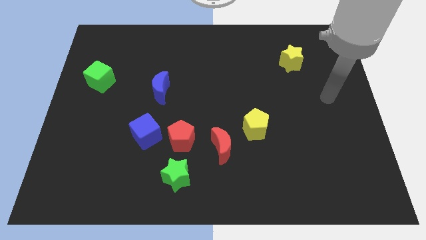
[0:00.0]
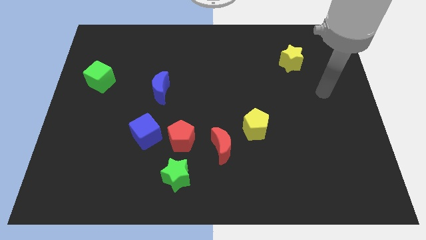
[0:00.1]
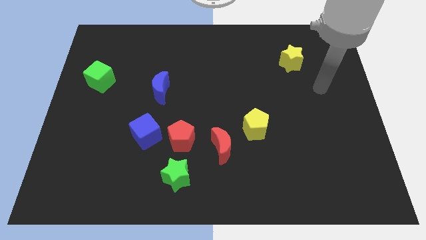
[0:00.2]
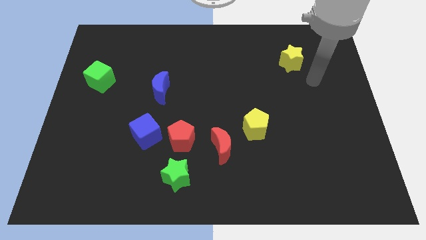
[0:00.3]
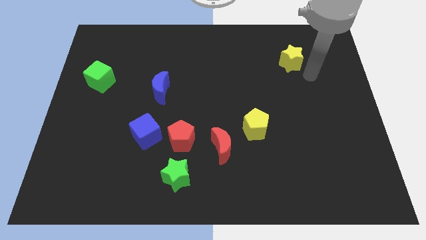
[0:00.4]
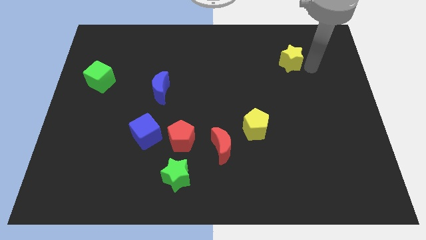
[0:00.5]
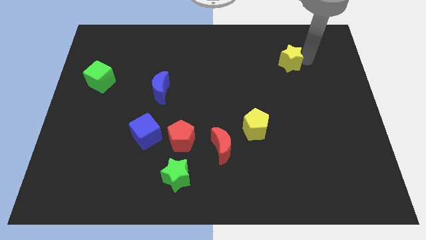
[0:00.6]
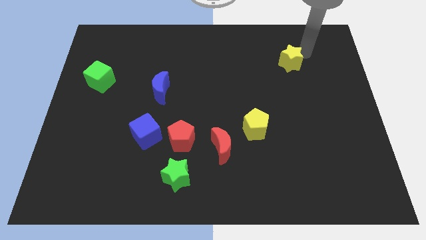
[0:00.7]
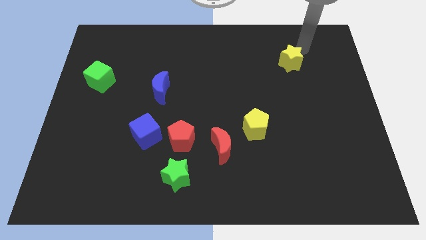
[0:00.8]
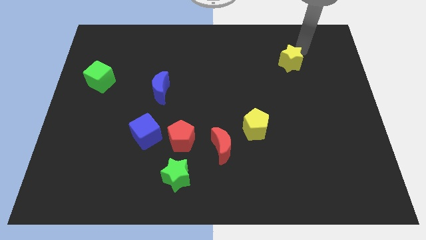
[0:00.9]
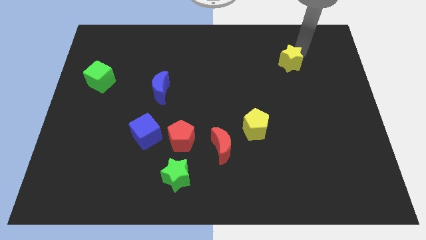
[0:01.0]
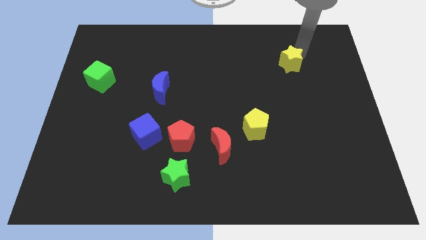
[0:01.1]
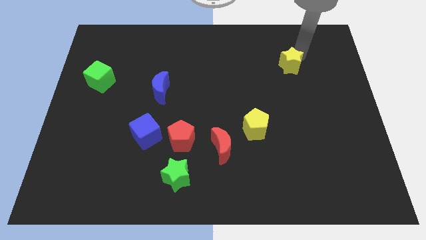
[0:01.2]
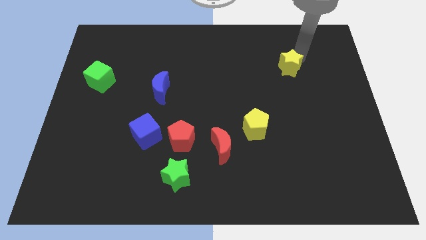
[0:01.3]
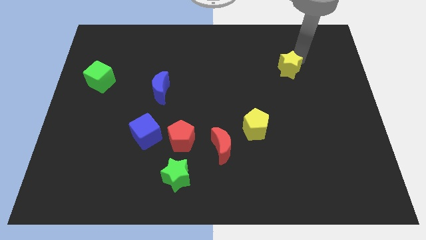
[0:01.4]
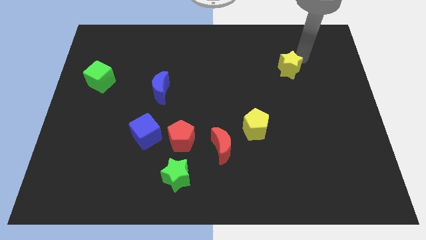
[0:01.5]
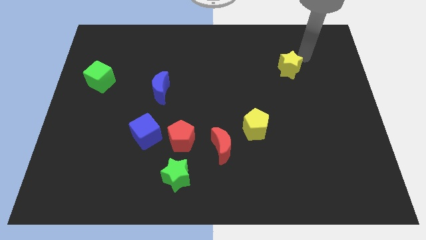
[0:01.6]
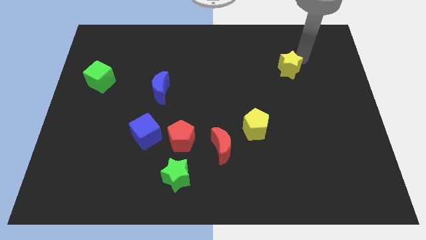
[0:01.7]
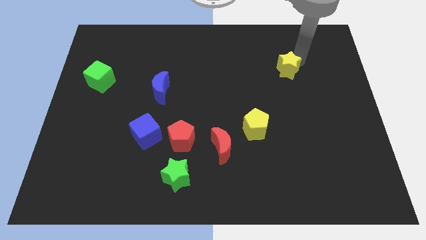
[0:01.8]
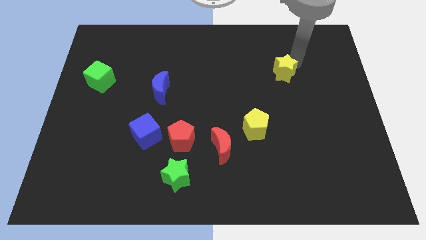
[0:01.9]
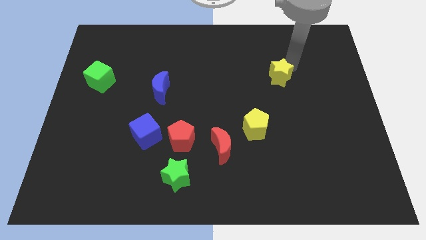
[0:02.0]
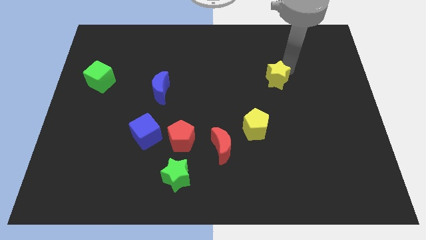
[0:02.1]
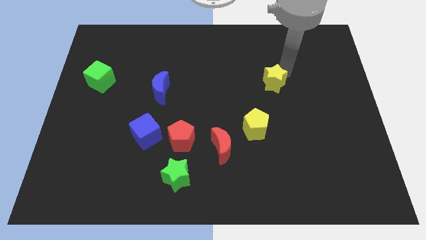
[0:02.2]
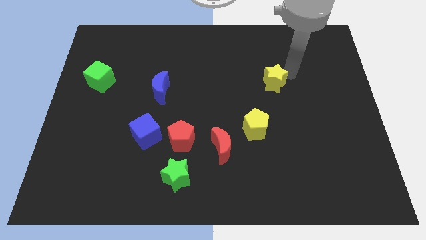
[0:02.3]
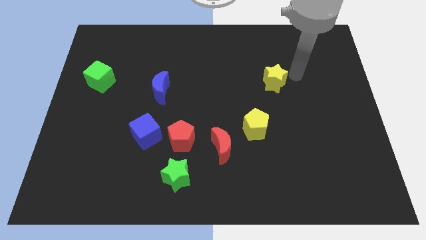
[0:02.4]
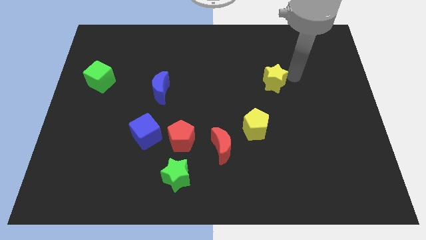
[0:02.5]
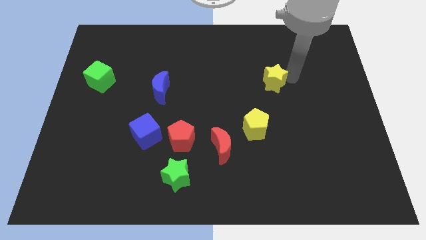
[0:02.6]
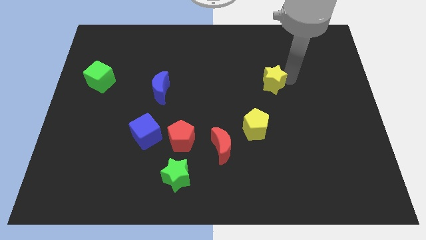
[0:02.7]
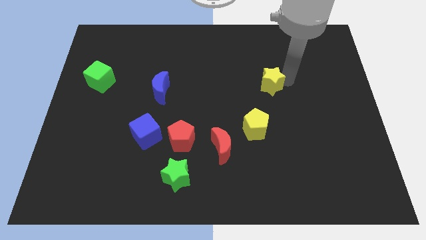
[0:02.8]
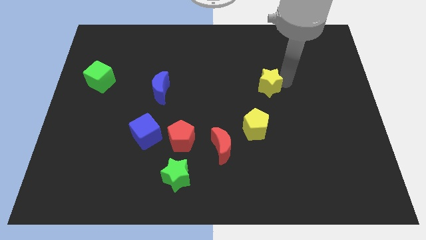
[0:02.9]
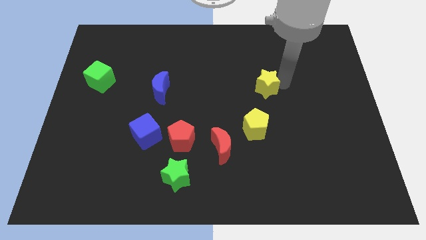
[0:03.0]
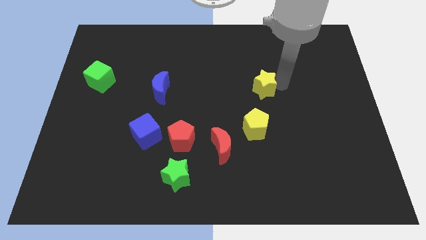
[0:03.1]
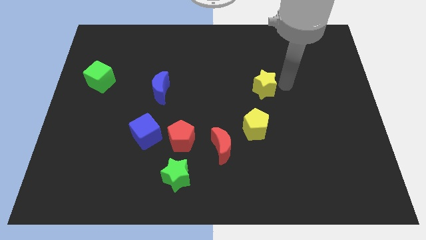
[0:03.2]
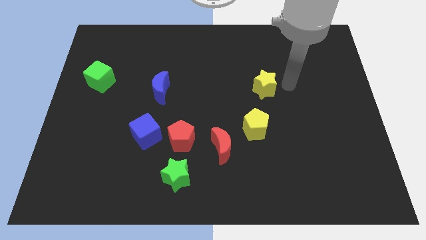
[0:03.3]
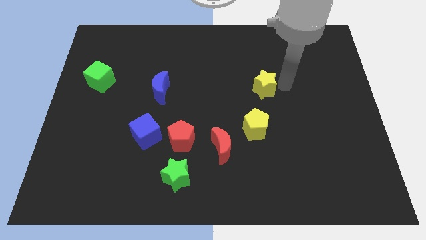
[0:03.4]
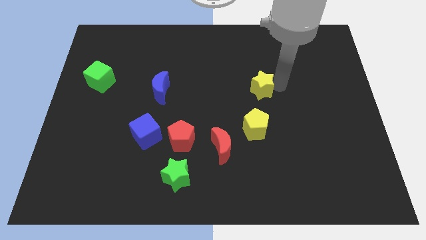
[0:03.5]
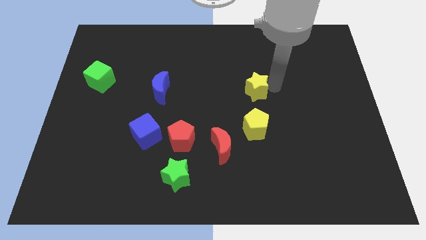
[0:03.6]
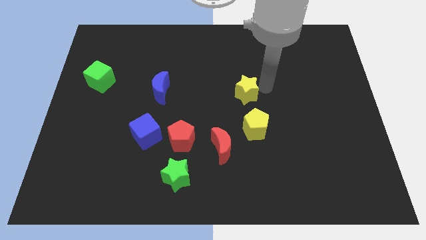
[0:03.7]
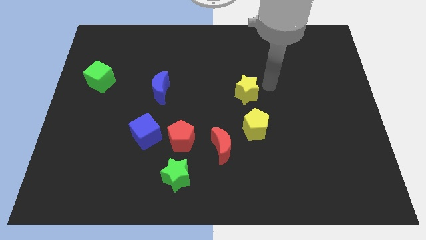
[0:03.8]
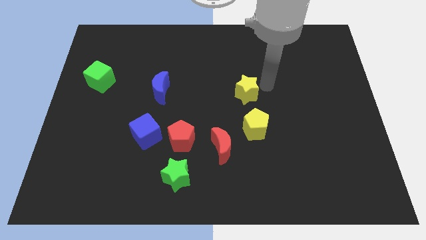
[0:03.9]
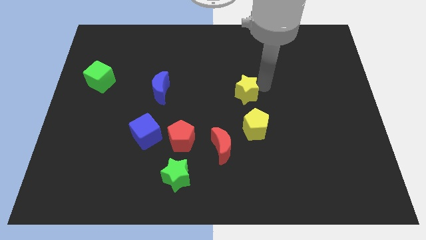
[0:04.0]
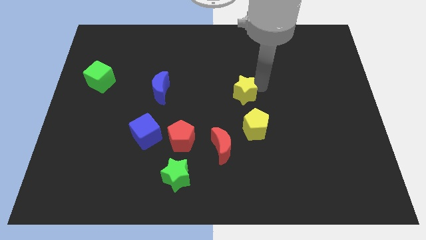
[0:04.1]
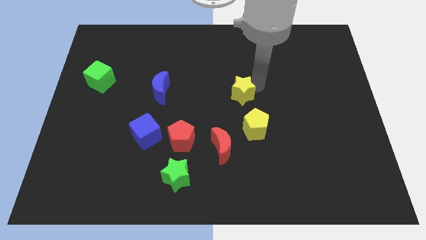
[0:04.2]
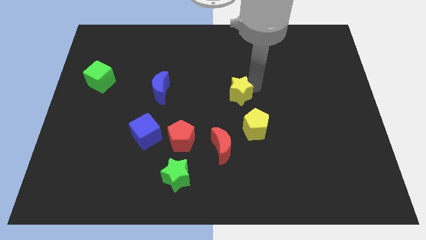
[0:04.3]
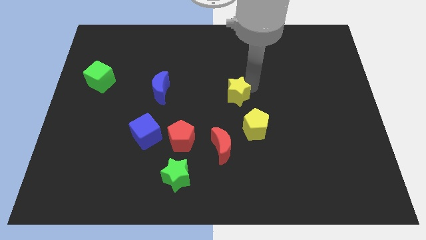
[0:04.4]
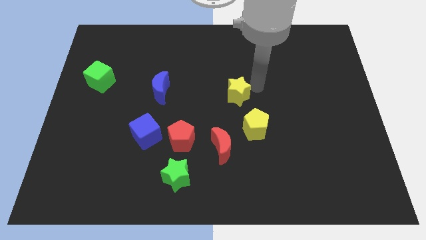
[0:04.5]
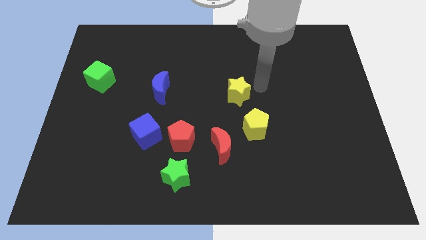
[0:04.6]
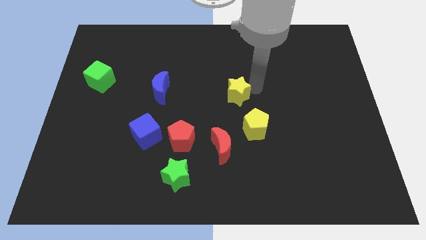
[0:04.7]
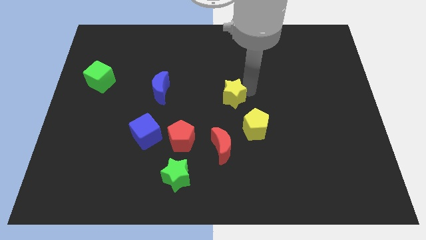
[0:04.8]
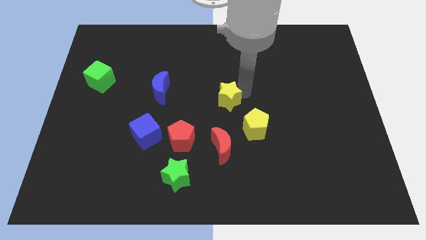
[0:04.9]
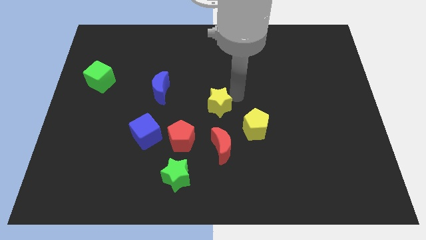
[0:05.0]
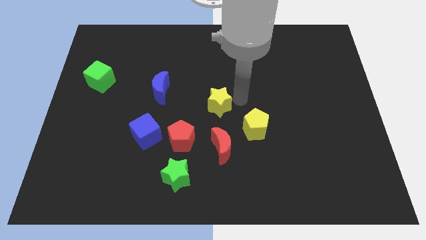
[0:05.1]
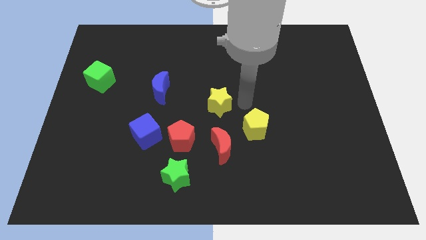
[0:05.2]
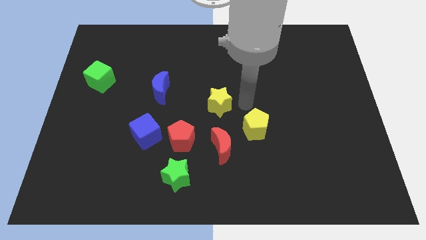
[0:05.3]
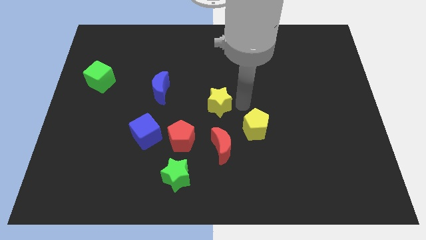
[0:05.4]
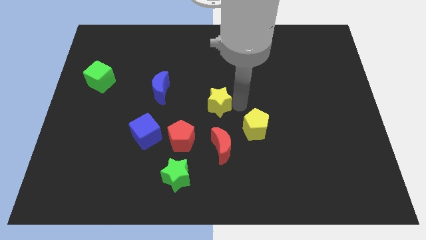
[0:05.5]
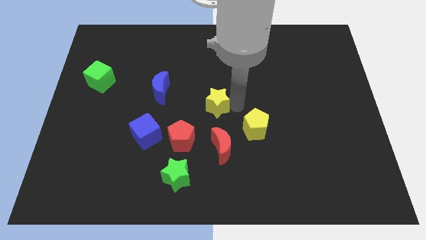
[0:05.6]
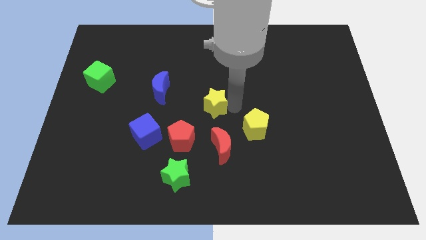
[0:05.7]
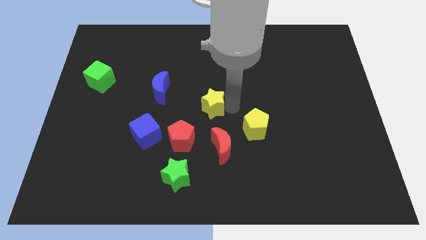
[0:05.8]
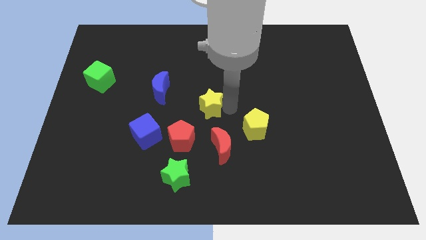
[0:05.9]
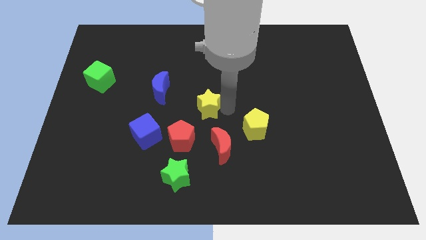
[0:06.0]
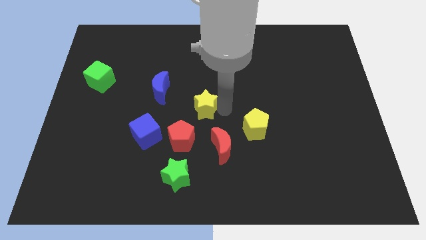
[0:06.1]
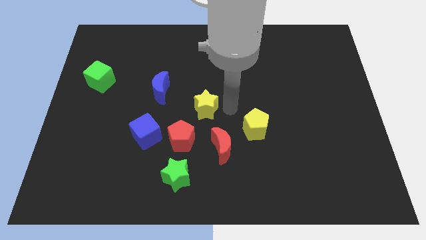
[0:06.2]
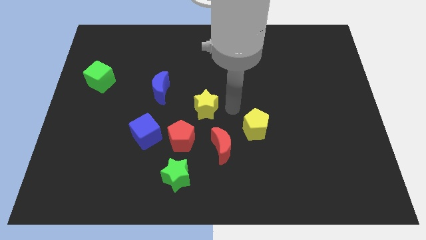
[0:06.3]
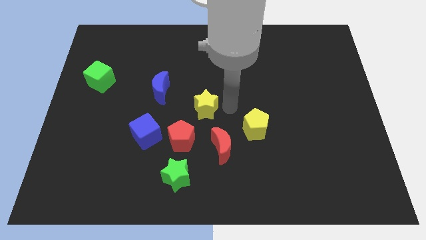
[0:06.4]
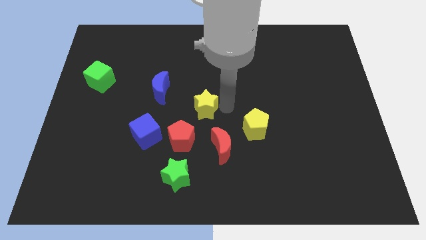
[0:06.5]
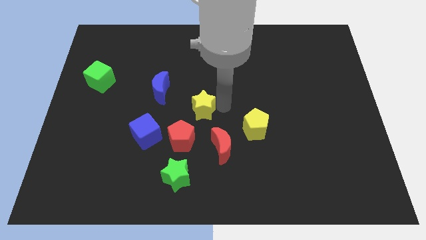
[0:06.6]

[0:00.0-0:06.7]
move the yellow star diagonally down and to the right of the blue moon

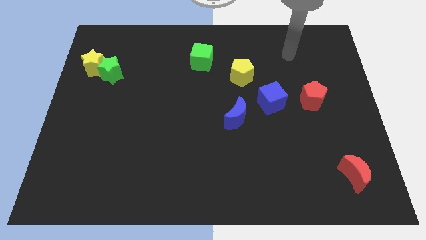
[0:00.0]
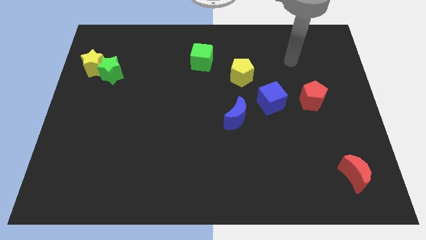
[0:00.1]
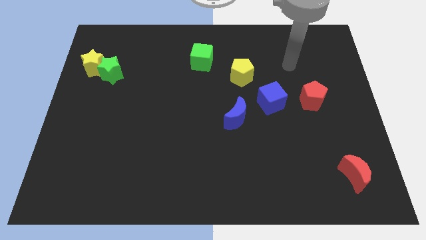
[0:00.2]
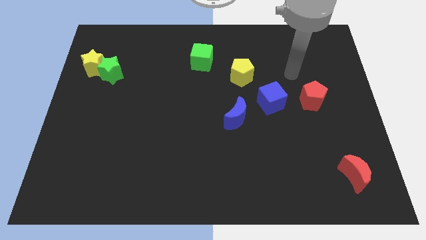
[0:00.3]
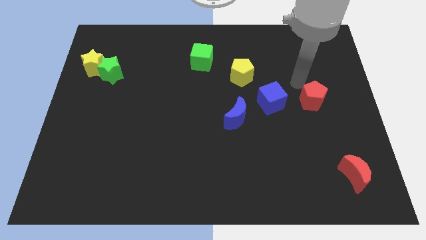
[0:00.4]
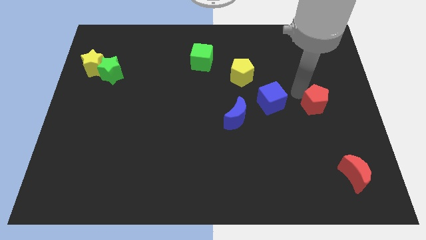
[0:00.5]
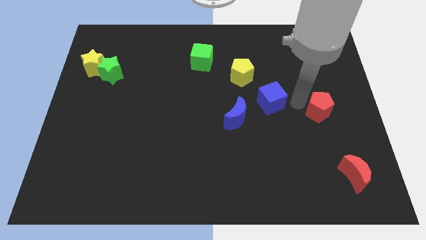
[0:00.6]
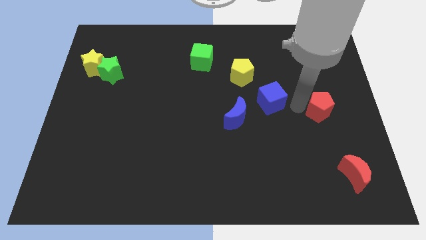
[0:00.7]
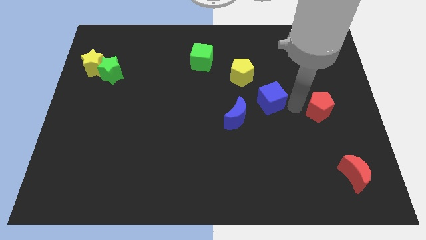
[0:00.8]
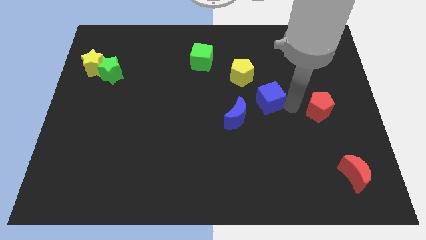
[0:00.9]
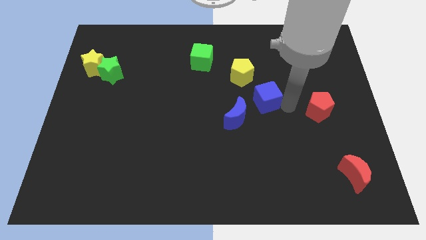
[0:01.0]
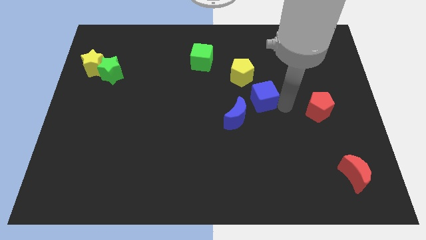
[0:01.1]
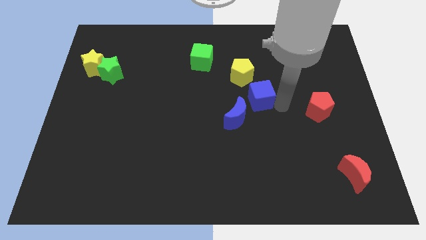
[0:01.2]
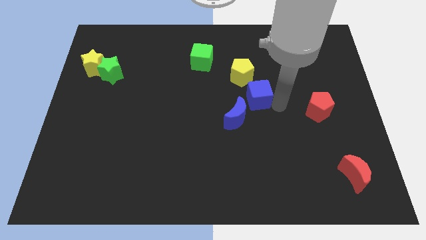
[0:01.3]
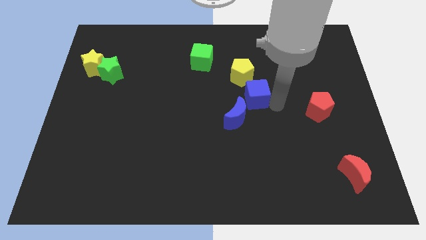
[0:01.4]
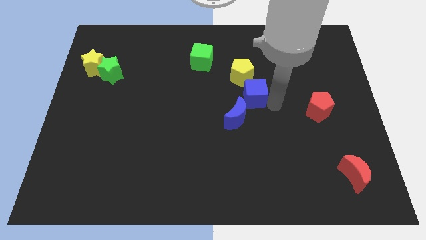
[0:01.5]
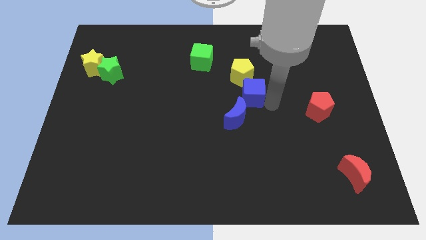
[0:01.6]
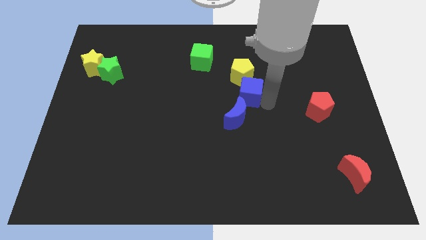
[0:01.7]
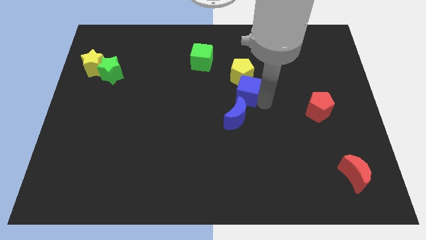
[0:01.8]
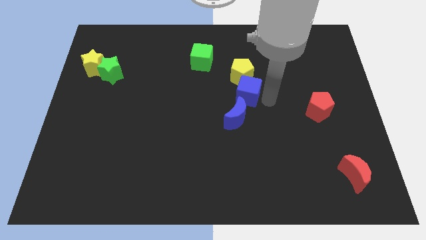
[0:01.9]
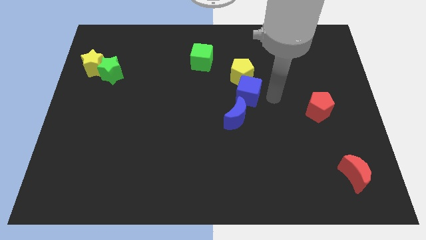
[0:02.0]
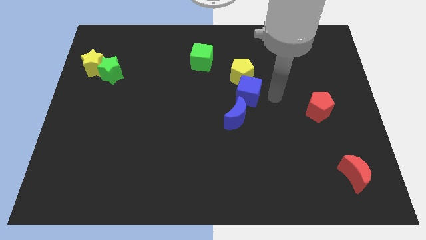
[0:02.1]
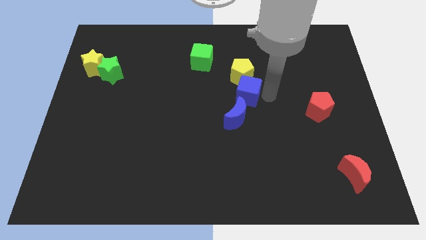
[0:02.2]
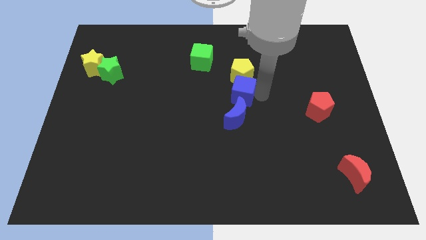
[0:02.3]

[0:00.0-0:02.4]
push the blue cube to the bottom left of the yellow pentagon
